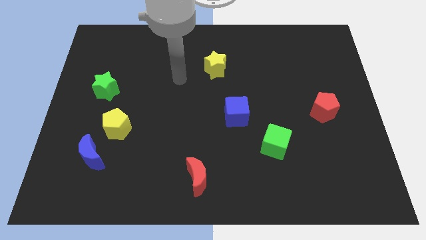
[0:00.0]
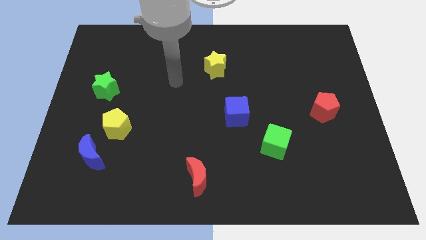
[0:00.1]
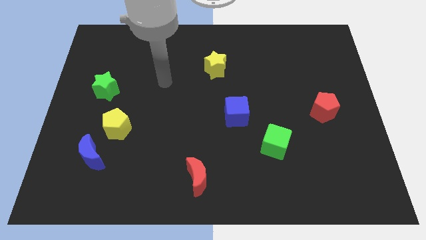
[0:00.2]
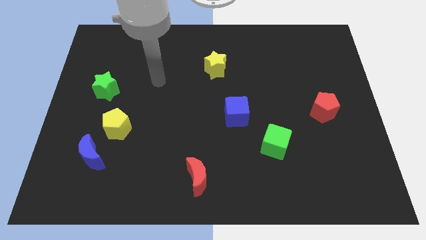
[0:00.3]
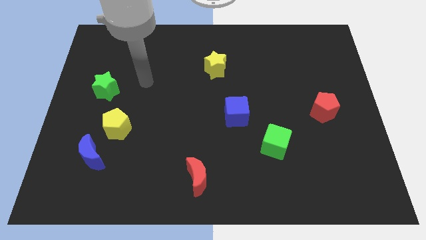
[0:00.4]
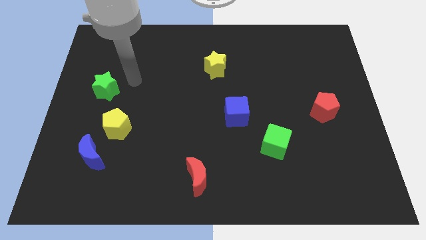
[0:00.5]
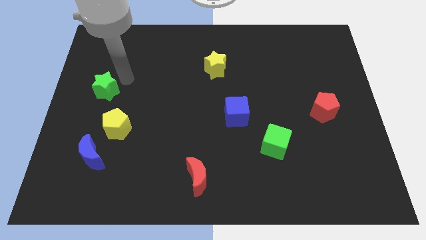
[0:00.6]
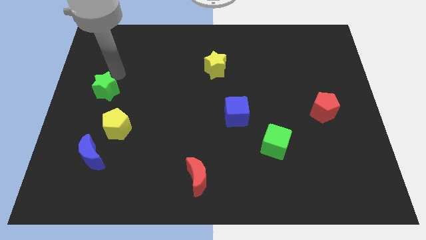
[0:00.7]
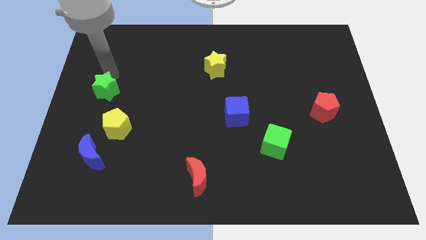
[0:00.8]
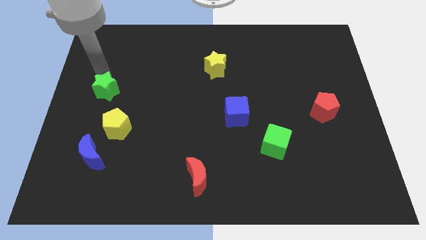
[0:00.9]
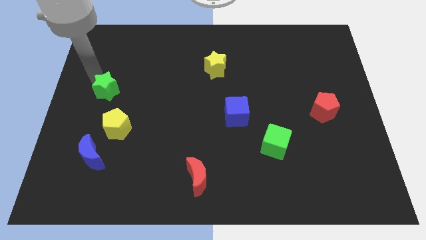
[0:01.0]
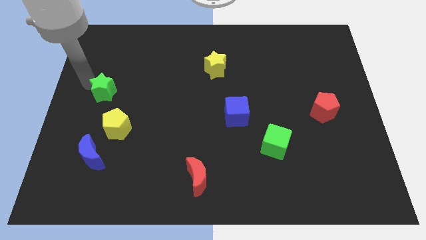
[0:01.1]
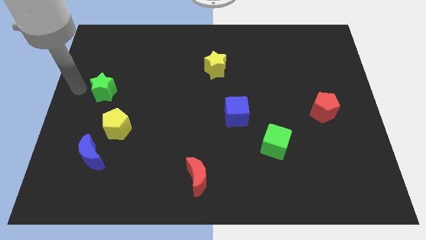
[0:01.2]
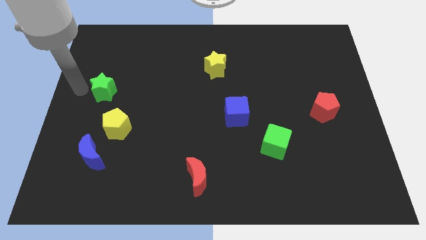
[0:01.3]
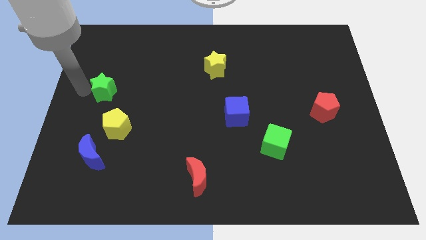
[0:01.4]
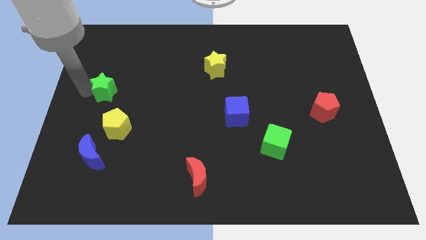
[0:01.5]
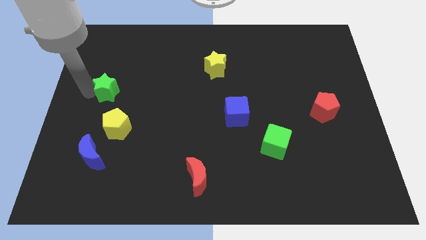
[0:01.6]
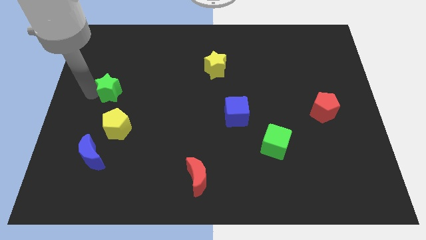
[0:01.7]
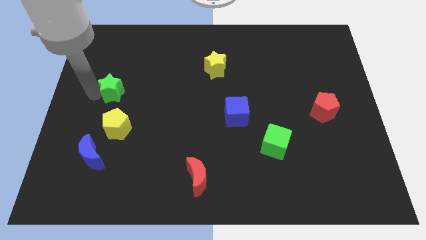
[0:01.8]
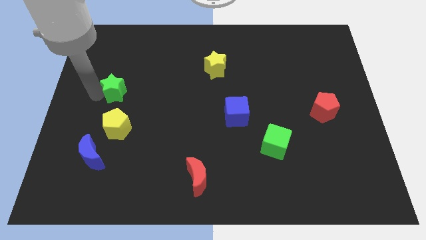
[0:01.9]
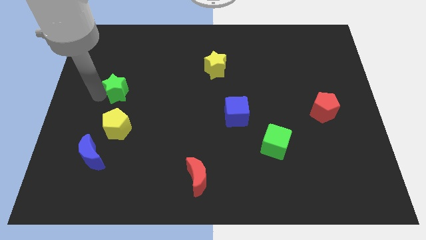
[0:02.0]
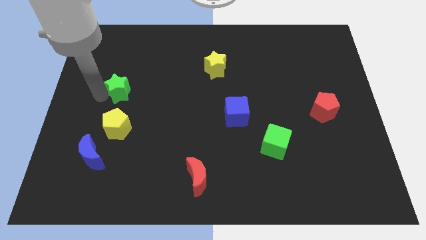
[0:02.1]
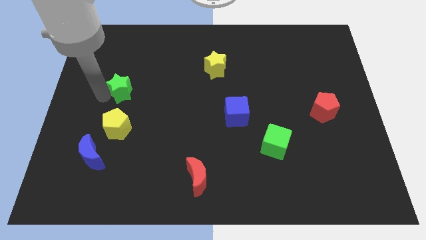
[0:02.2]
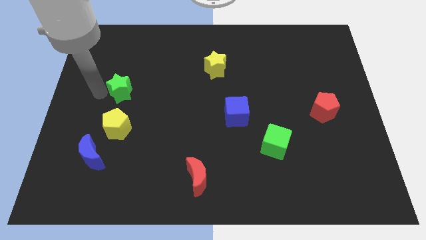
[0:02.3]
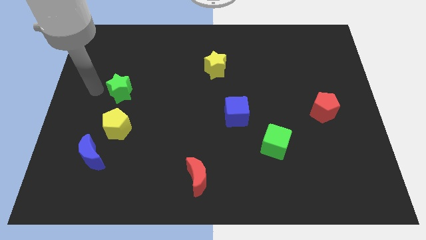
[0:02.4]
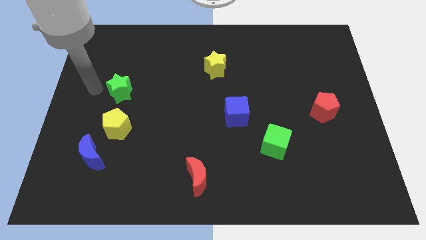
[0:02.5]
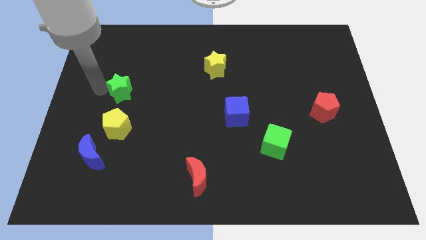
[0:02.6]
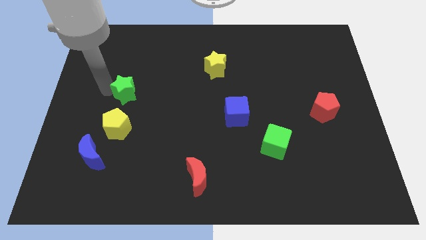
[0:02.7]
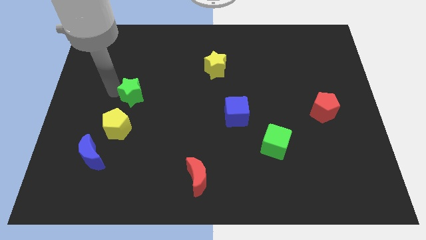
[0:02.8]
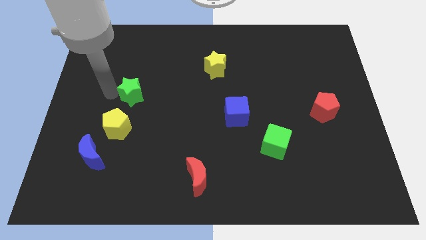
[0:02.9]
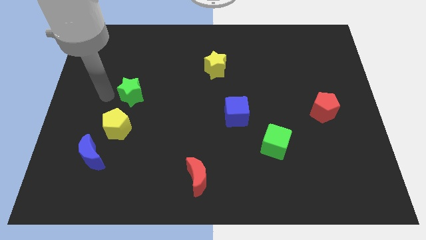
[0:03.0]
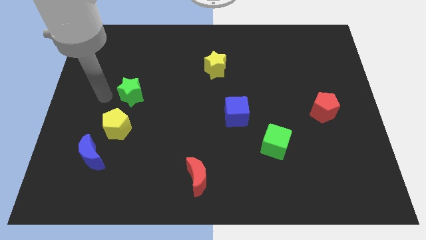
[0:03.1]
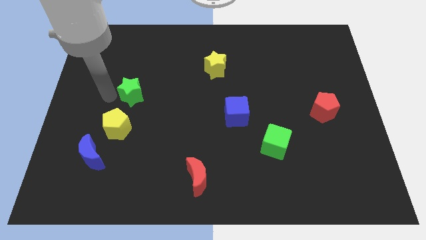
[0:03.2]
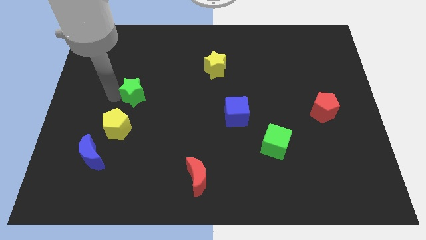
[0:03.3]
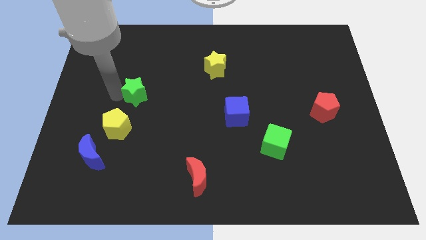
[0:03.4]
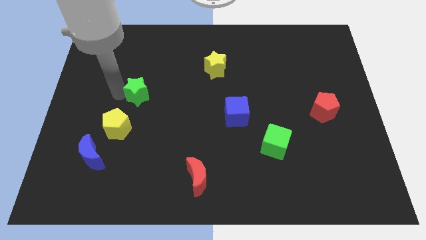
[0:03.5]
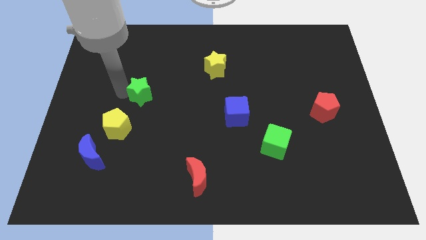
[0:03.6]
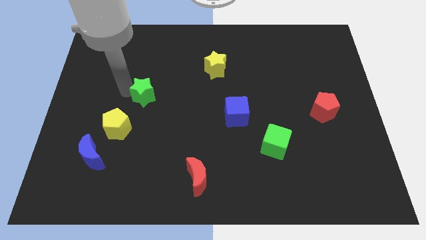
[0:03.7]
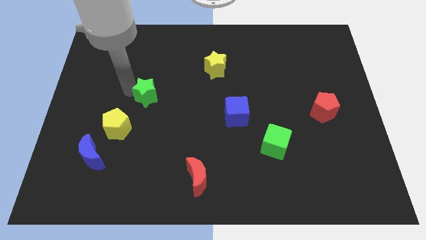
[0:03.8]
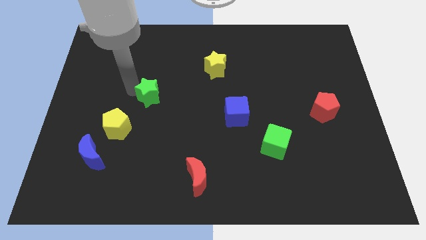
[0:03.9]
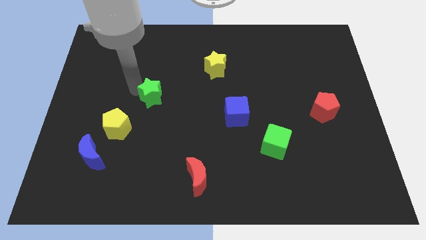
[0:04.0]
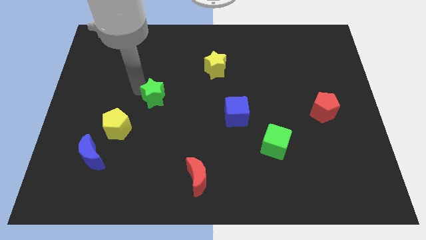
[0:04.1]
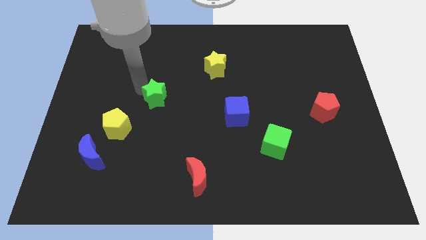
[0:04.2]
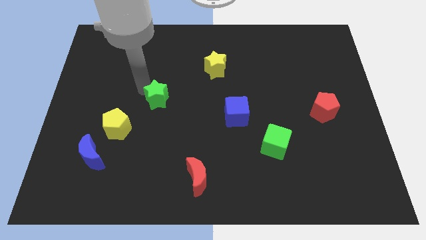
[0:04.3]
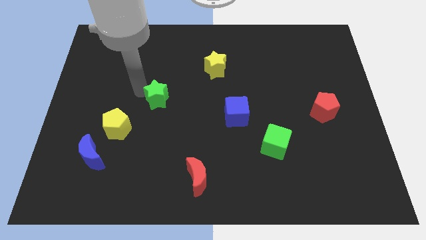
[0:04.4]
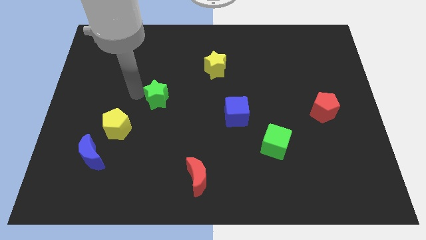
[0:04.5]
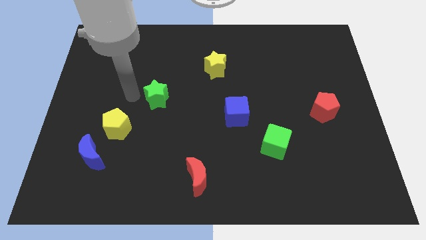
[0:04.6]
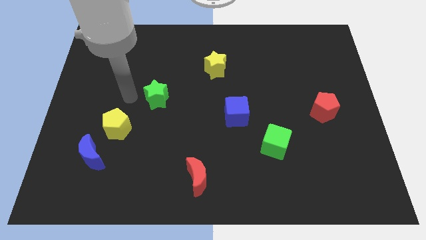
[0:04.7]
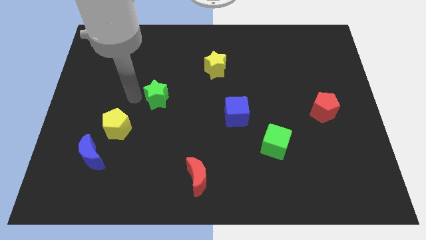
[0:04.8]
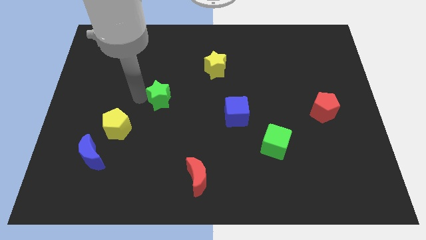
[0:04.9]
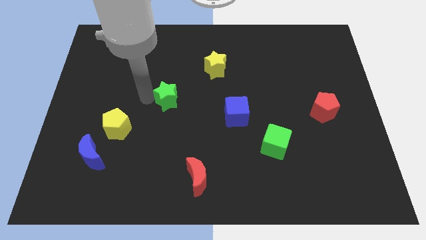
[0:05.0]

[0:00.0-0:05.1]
put the green star to the center

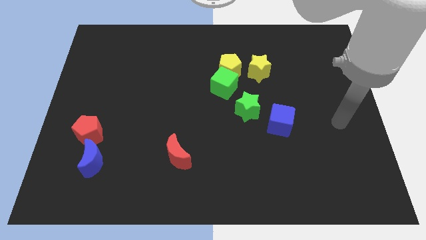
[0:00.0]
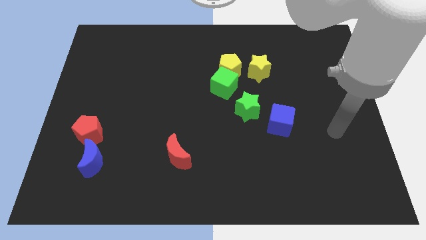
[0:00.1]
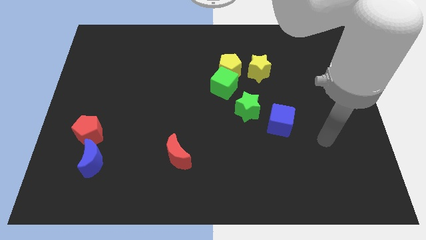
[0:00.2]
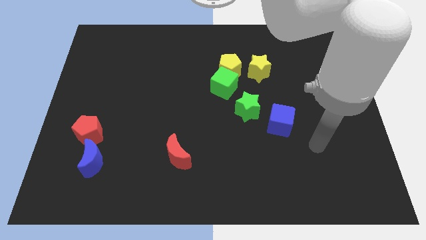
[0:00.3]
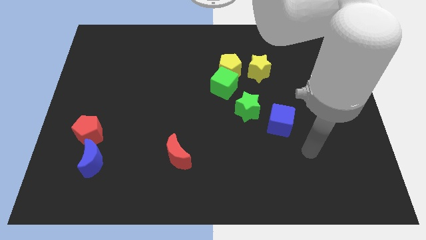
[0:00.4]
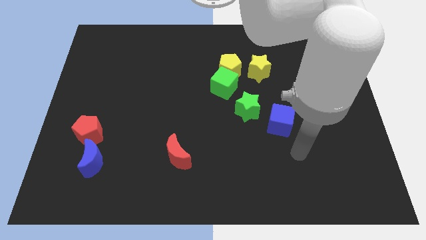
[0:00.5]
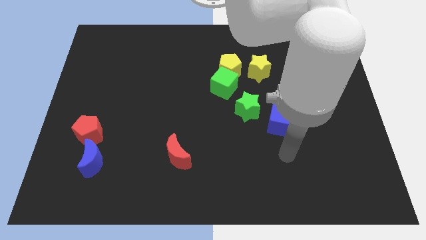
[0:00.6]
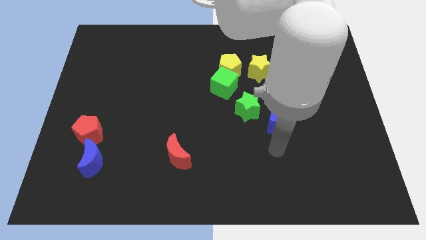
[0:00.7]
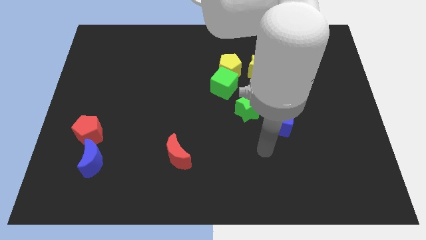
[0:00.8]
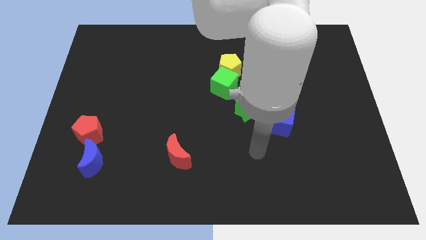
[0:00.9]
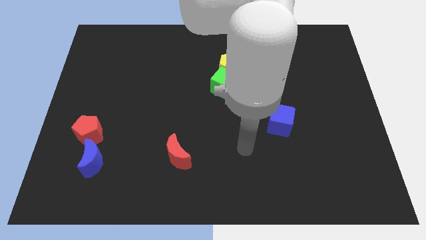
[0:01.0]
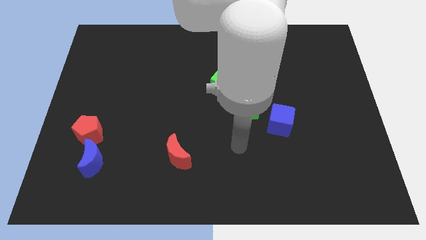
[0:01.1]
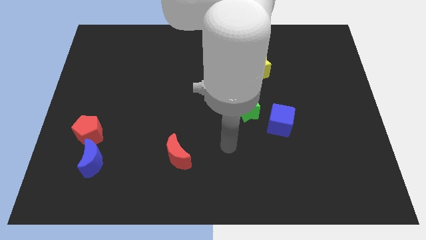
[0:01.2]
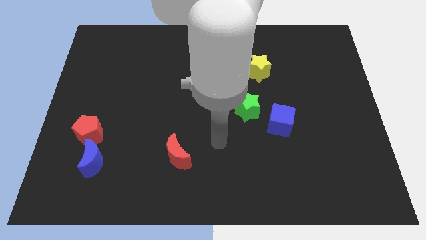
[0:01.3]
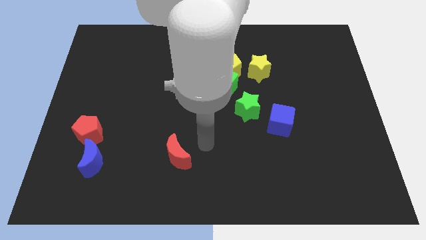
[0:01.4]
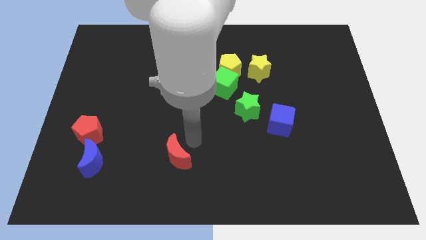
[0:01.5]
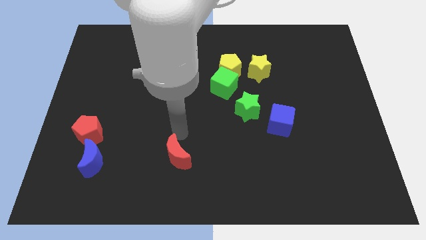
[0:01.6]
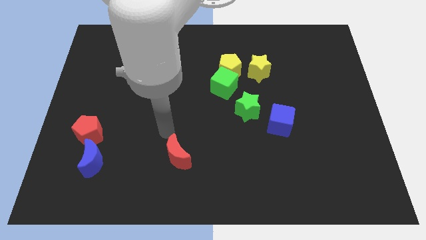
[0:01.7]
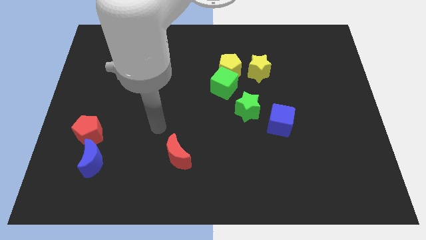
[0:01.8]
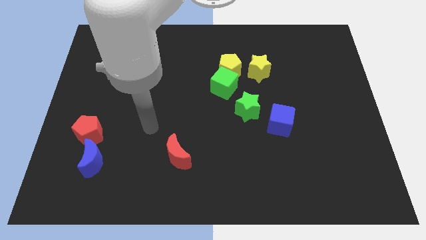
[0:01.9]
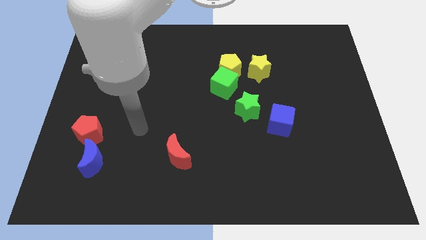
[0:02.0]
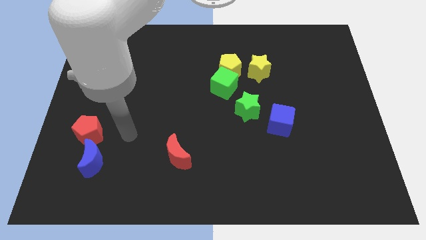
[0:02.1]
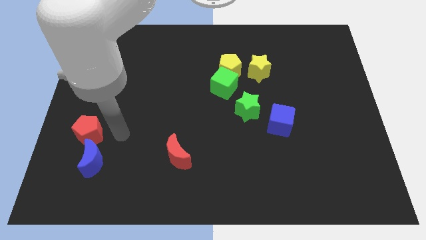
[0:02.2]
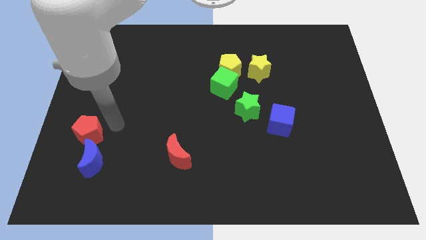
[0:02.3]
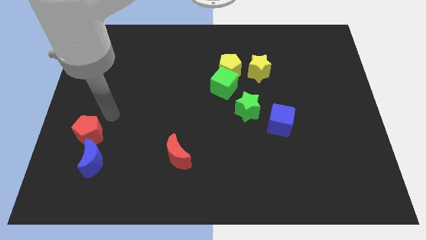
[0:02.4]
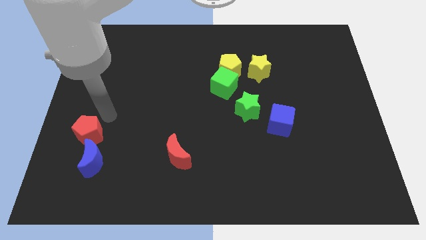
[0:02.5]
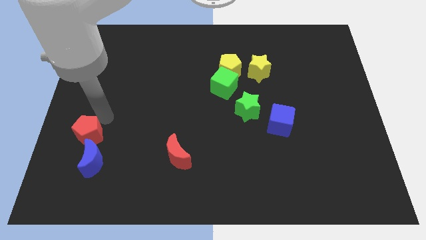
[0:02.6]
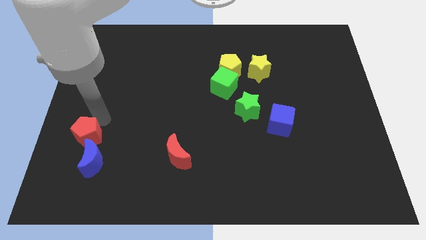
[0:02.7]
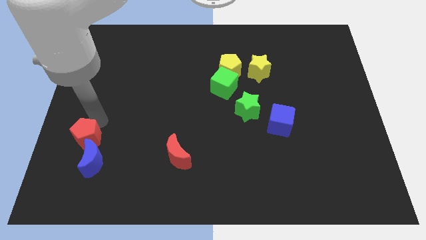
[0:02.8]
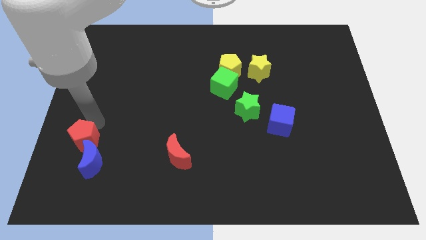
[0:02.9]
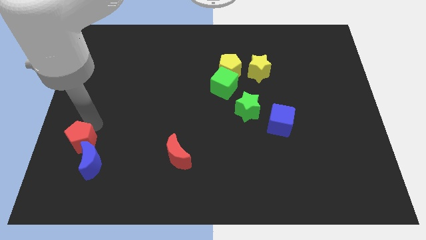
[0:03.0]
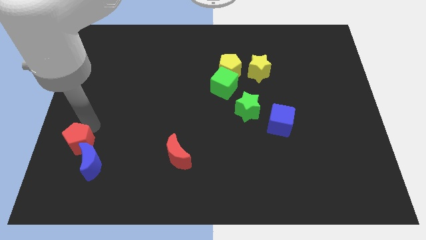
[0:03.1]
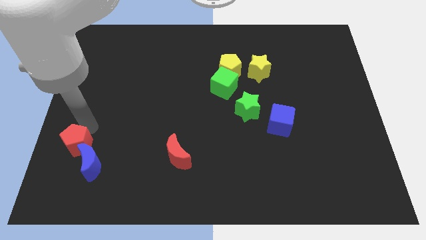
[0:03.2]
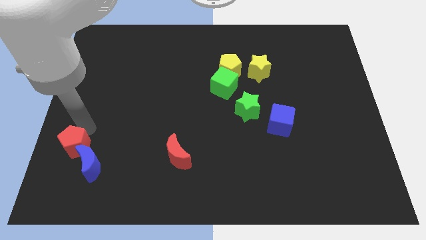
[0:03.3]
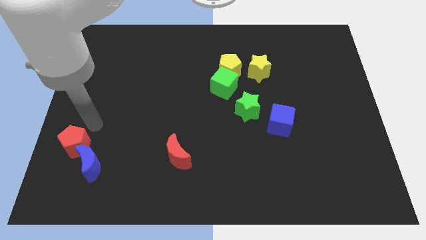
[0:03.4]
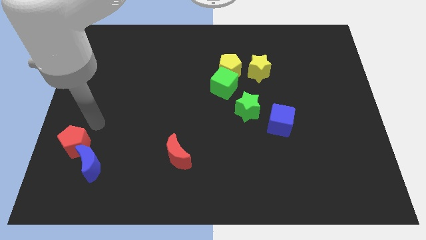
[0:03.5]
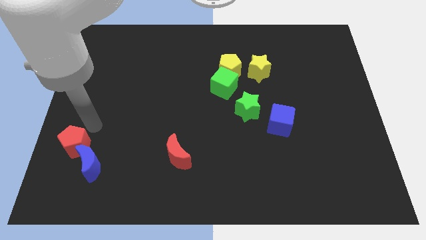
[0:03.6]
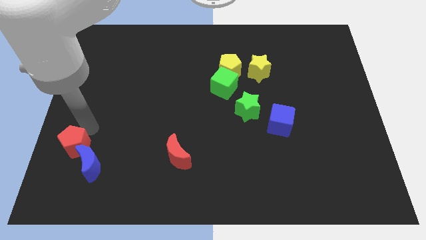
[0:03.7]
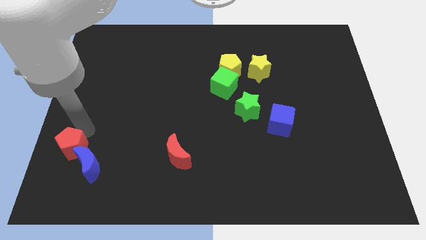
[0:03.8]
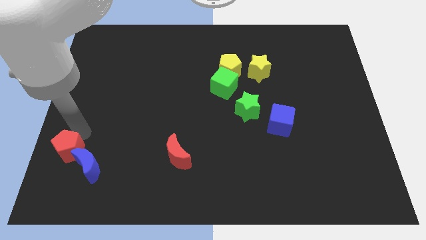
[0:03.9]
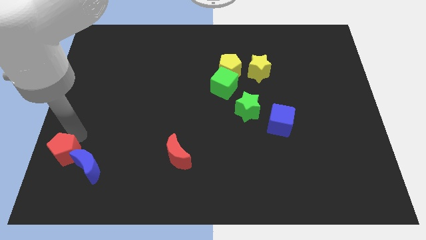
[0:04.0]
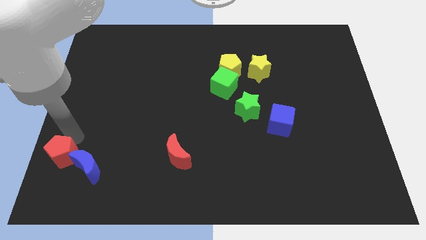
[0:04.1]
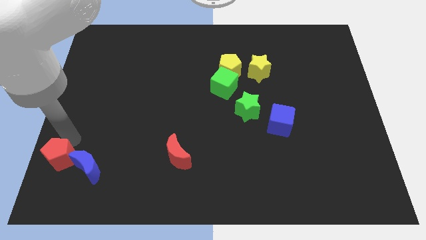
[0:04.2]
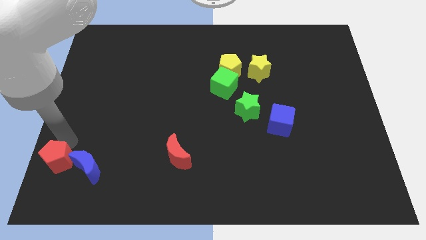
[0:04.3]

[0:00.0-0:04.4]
push the red pentagon to the bottom left
